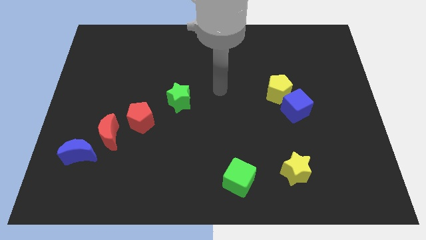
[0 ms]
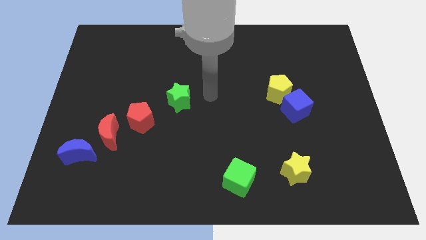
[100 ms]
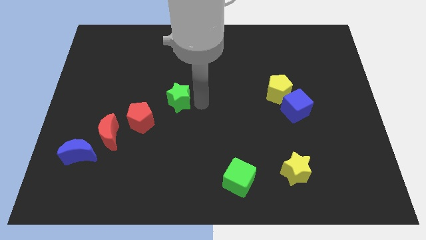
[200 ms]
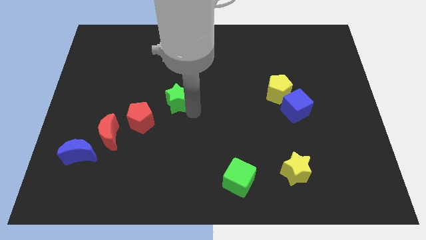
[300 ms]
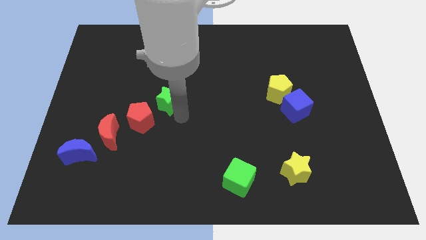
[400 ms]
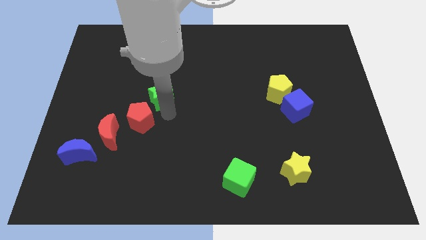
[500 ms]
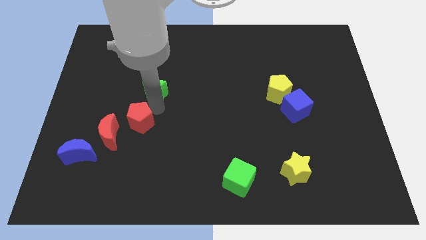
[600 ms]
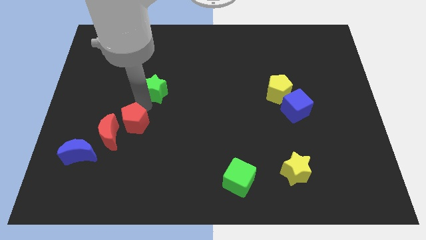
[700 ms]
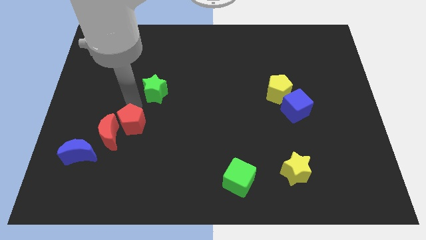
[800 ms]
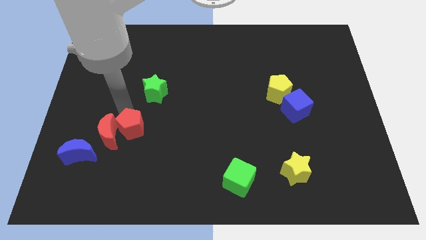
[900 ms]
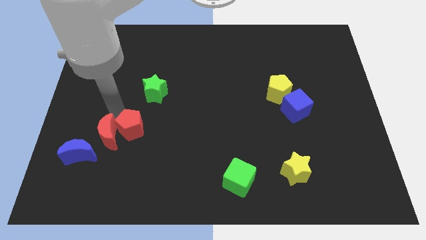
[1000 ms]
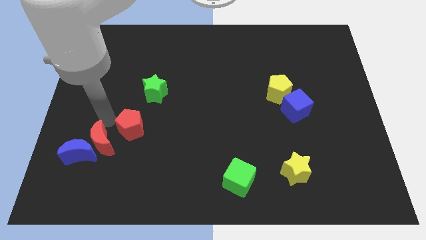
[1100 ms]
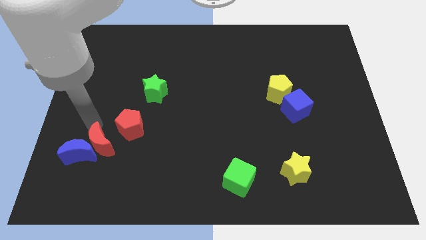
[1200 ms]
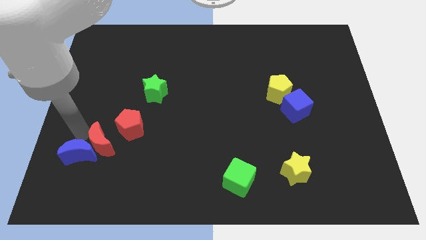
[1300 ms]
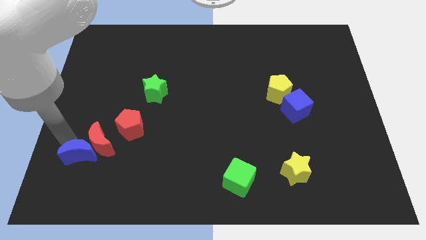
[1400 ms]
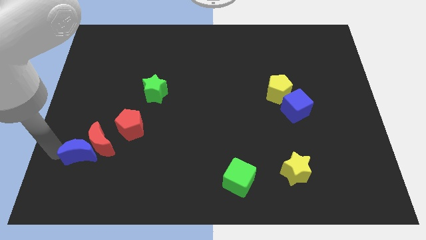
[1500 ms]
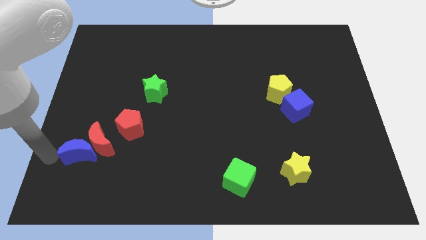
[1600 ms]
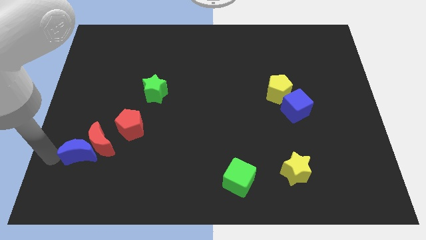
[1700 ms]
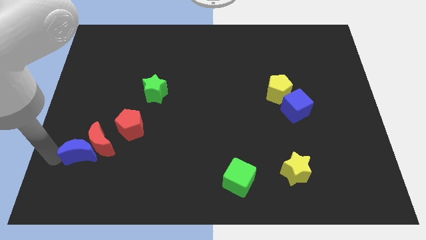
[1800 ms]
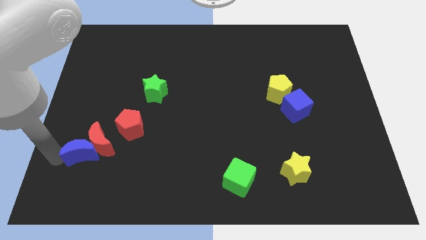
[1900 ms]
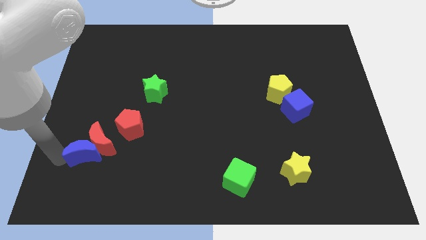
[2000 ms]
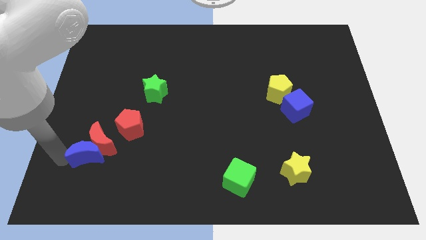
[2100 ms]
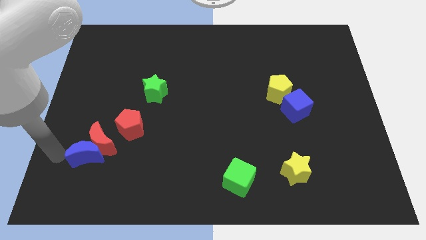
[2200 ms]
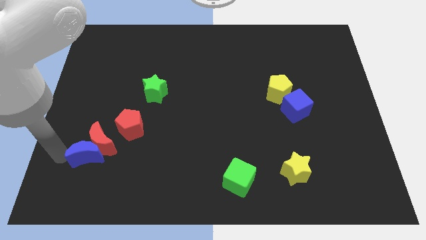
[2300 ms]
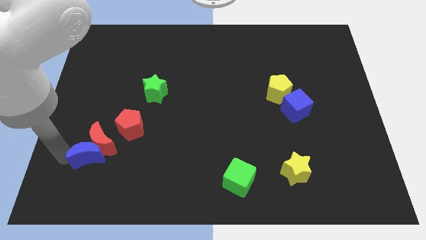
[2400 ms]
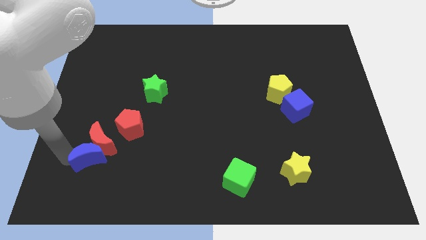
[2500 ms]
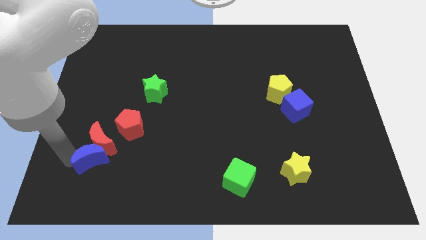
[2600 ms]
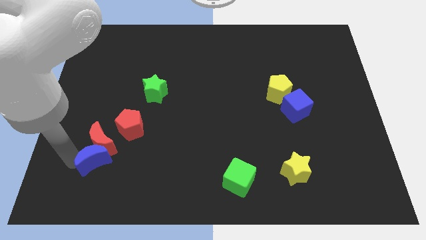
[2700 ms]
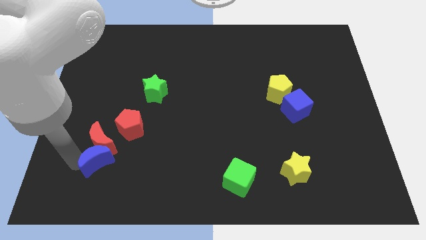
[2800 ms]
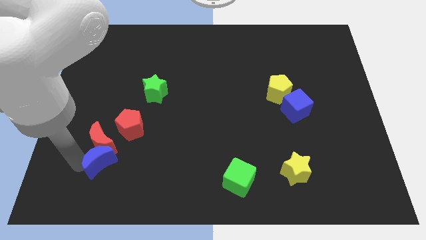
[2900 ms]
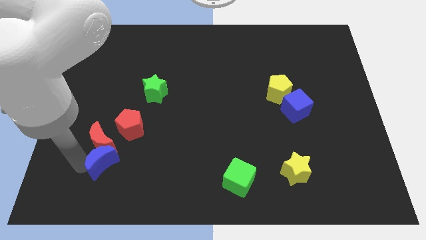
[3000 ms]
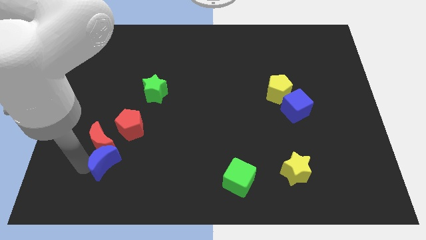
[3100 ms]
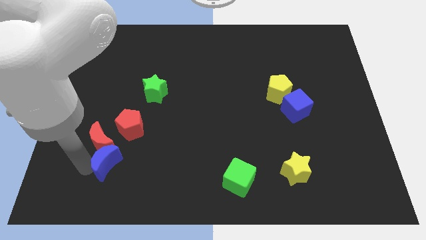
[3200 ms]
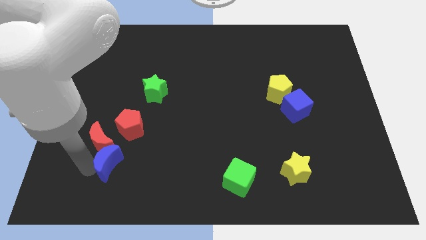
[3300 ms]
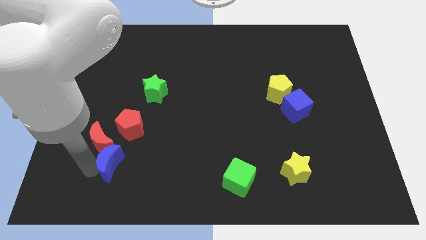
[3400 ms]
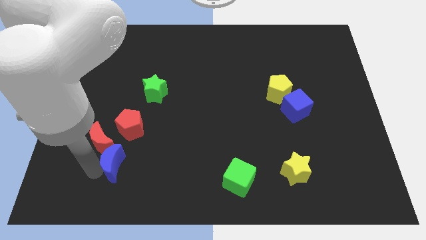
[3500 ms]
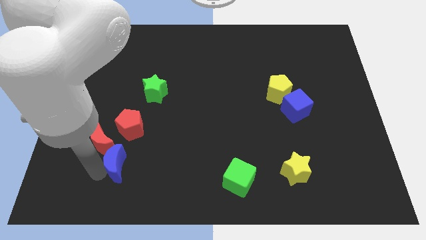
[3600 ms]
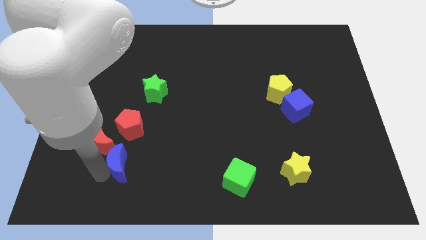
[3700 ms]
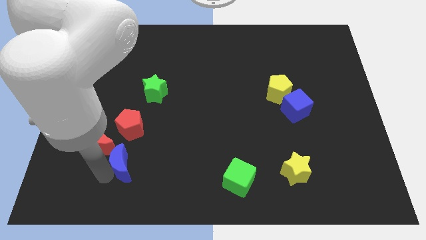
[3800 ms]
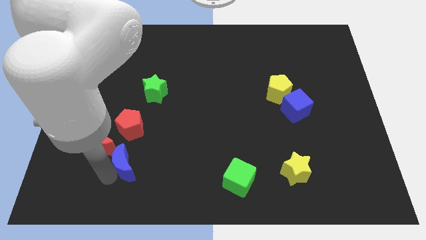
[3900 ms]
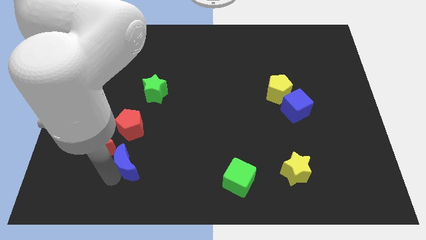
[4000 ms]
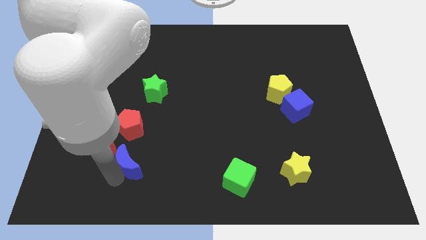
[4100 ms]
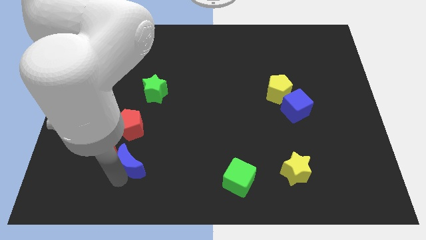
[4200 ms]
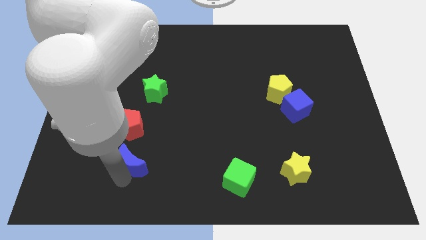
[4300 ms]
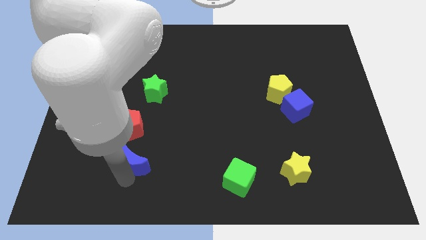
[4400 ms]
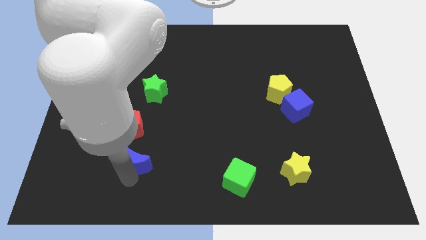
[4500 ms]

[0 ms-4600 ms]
put the blue moon just right of the red moon

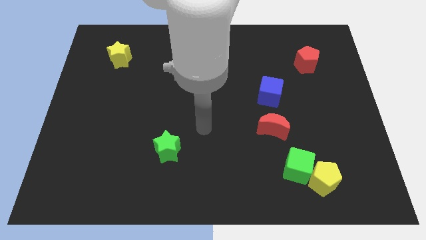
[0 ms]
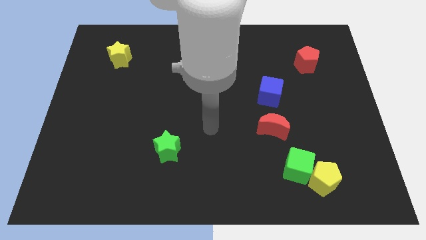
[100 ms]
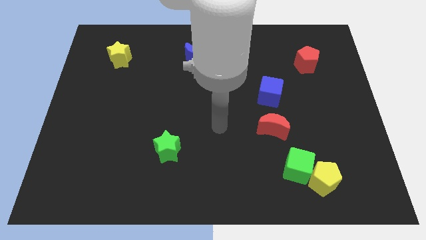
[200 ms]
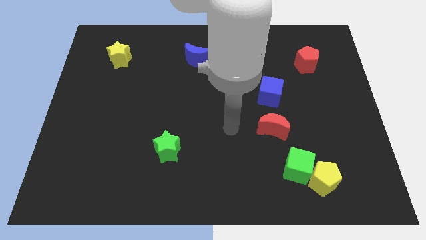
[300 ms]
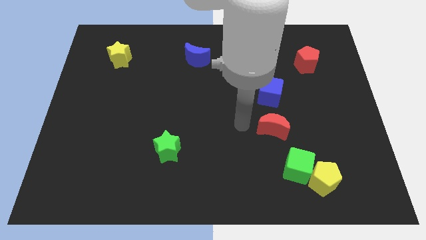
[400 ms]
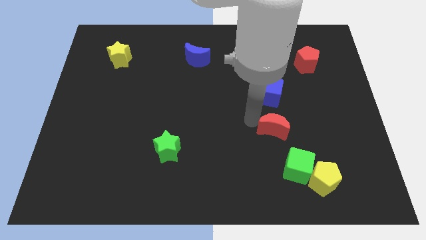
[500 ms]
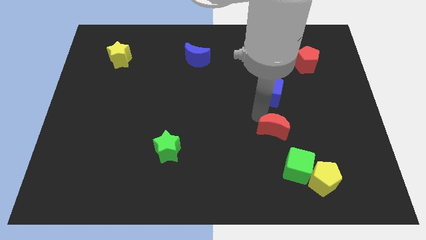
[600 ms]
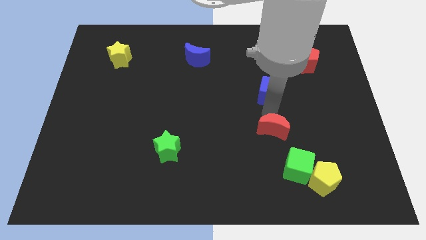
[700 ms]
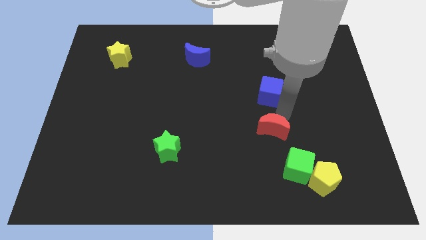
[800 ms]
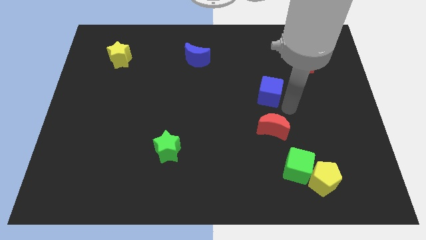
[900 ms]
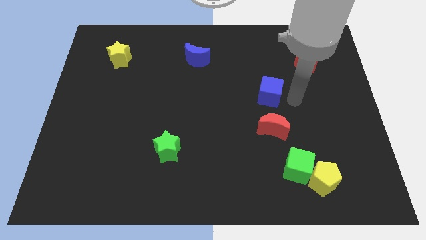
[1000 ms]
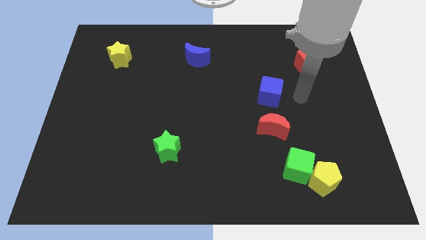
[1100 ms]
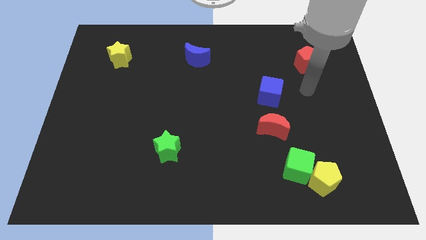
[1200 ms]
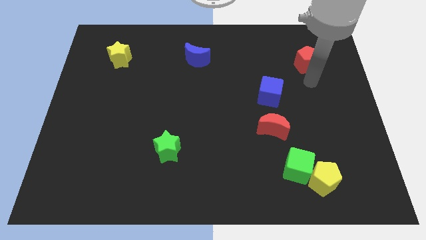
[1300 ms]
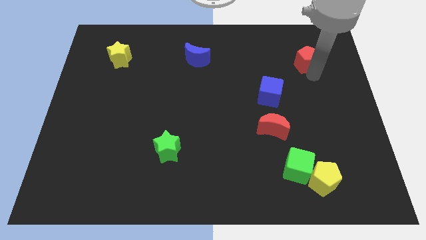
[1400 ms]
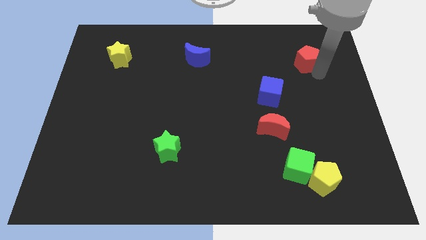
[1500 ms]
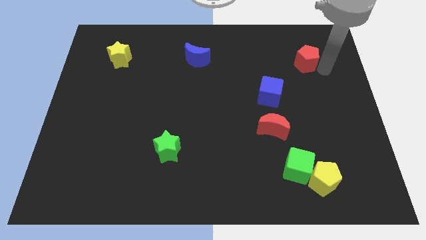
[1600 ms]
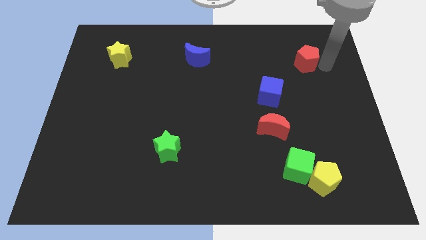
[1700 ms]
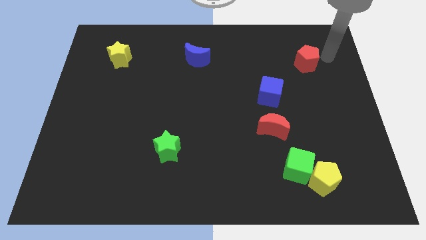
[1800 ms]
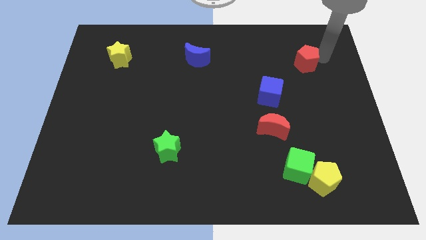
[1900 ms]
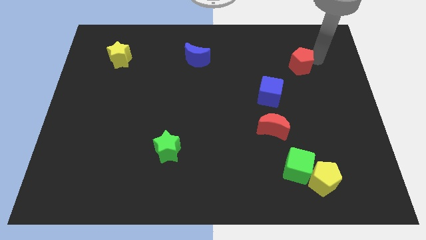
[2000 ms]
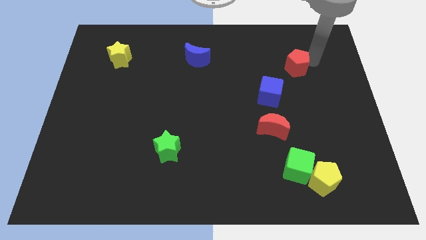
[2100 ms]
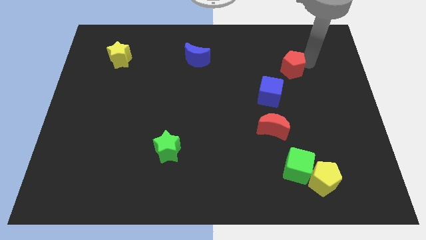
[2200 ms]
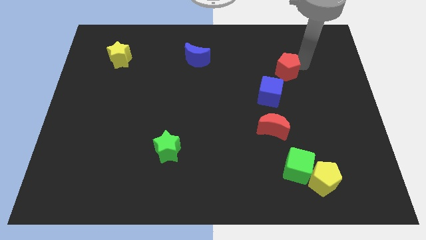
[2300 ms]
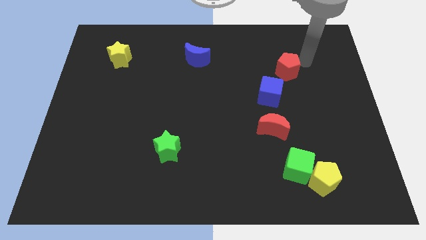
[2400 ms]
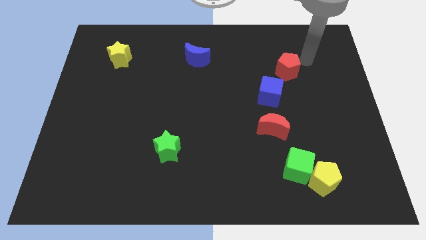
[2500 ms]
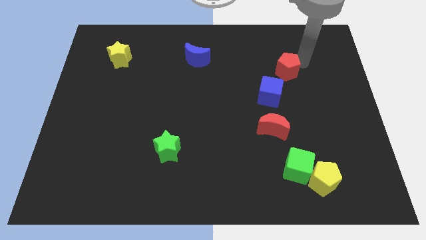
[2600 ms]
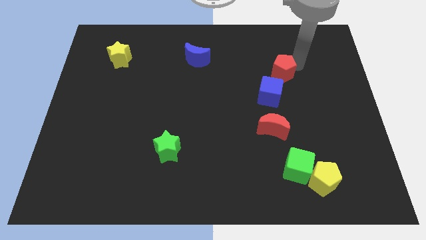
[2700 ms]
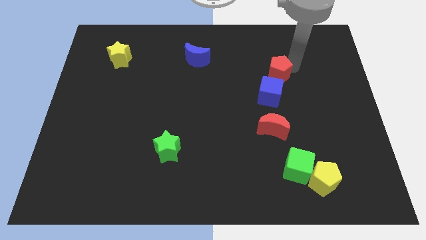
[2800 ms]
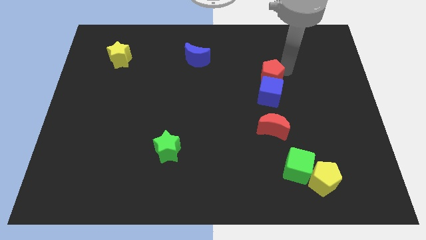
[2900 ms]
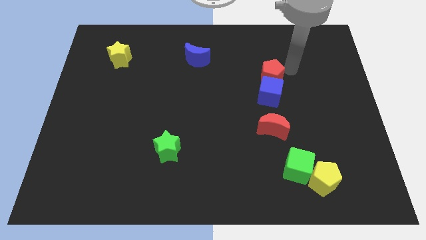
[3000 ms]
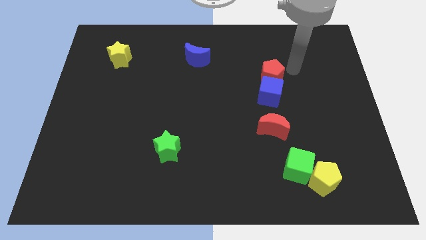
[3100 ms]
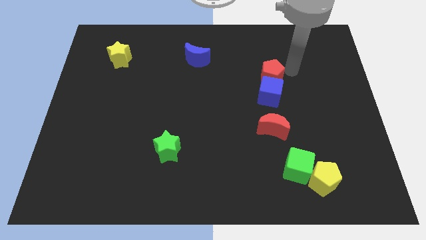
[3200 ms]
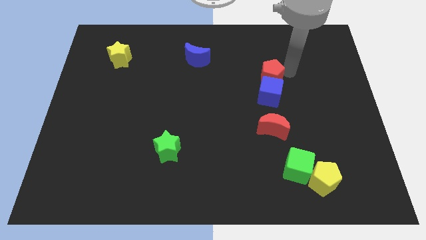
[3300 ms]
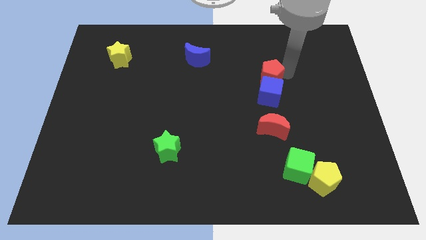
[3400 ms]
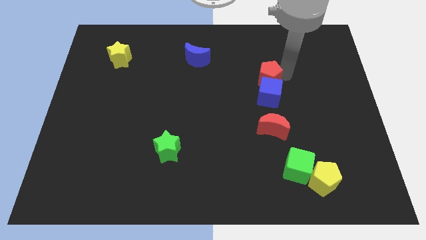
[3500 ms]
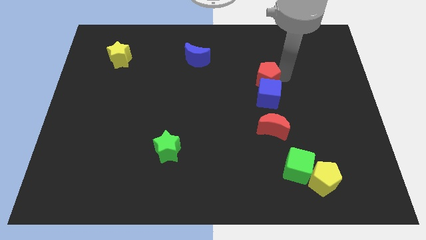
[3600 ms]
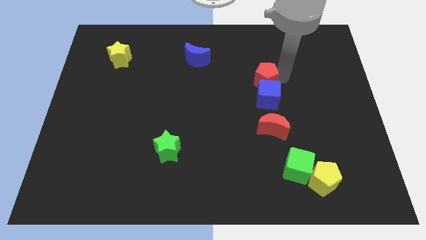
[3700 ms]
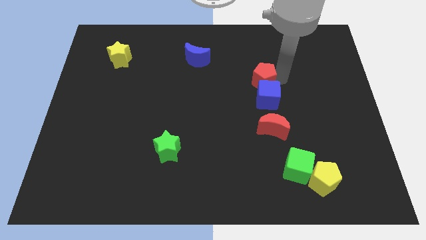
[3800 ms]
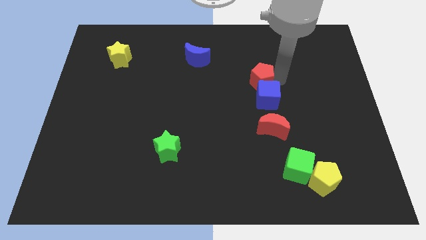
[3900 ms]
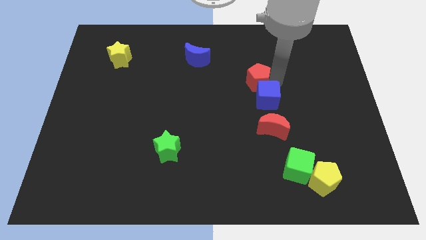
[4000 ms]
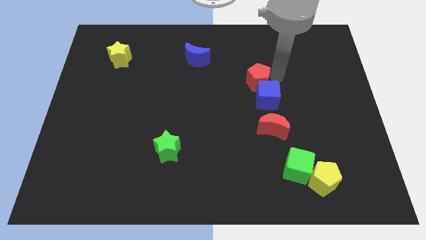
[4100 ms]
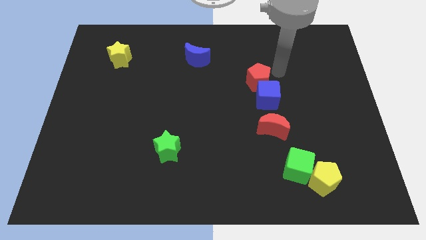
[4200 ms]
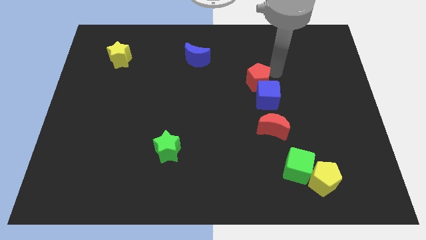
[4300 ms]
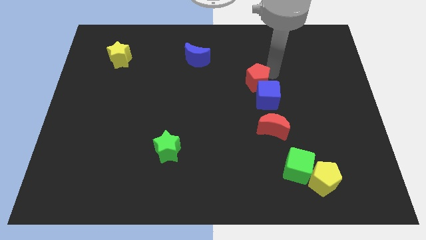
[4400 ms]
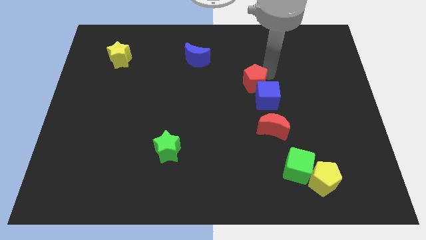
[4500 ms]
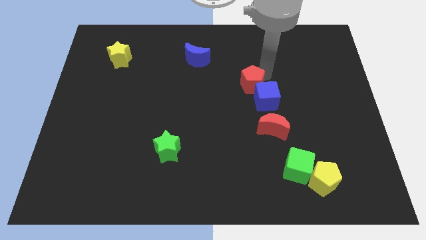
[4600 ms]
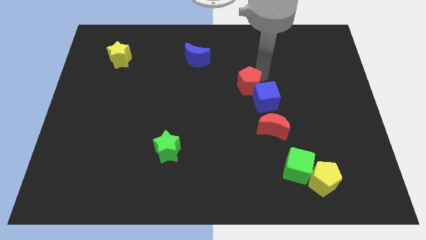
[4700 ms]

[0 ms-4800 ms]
push the red pentagon left of the blue cube
